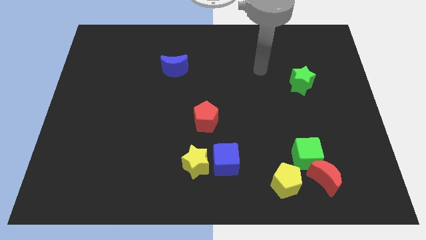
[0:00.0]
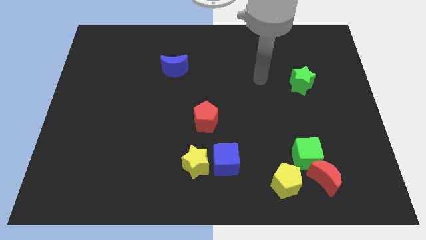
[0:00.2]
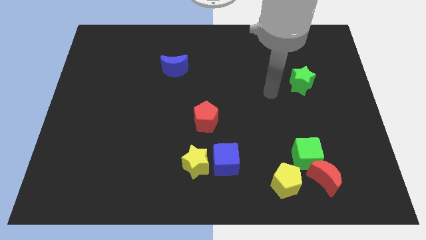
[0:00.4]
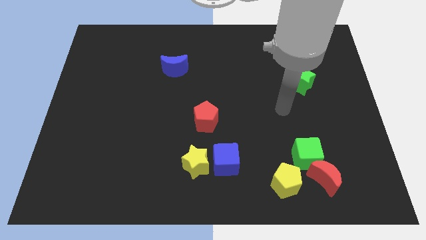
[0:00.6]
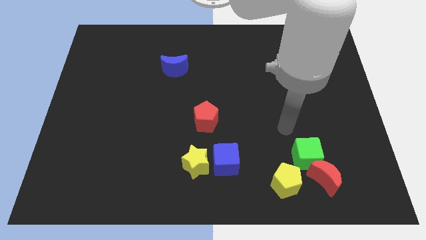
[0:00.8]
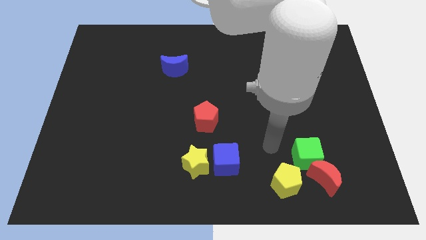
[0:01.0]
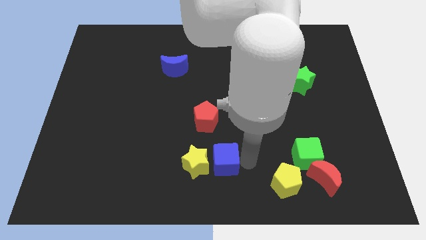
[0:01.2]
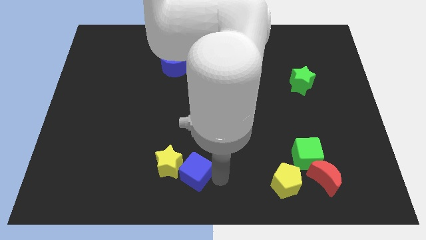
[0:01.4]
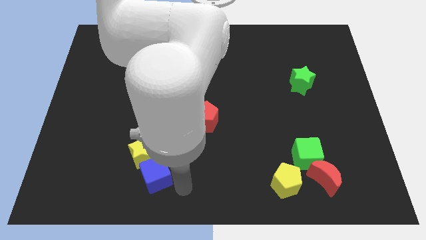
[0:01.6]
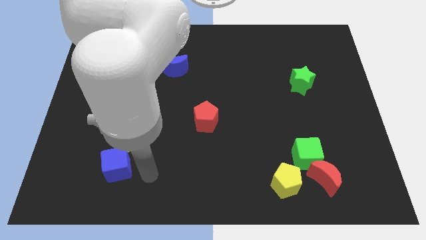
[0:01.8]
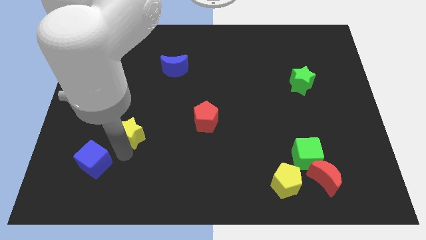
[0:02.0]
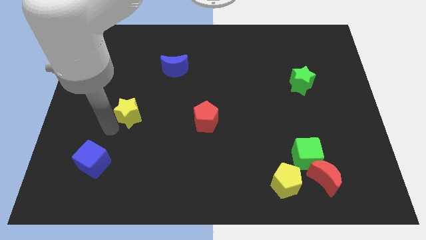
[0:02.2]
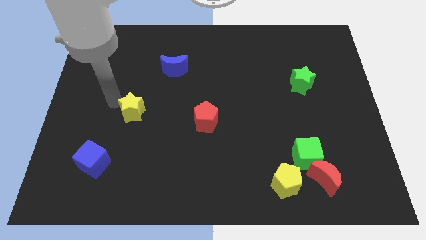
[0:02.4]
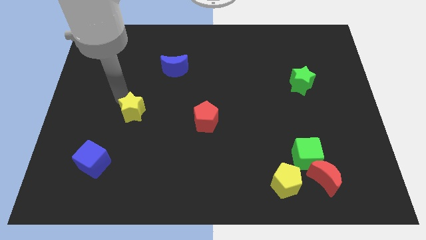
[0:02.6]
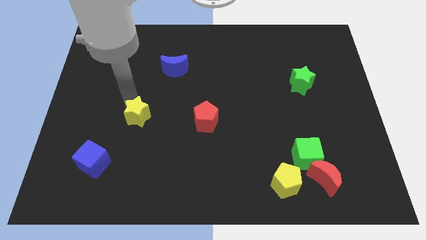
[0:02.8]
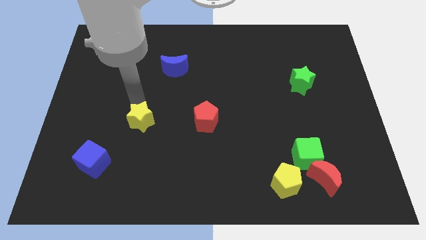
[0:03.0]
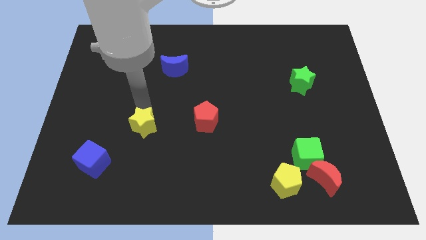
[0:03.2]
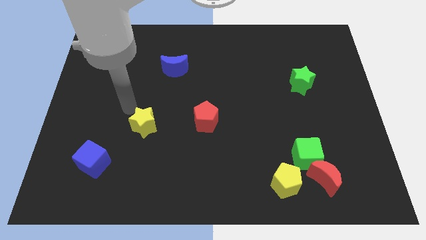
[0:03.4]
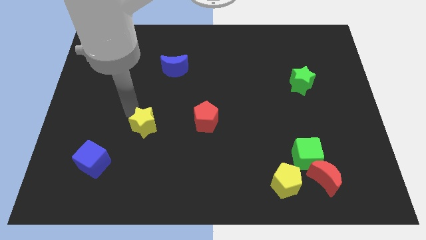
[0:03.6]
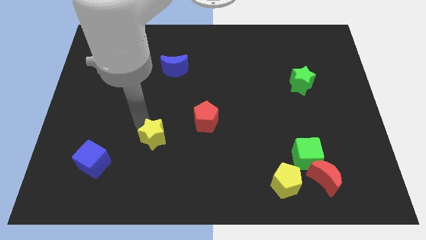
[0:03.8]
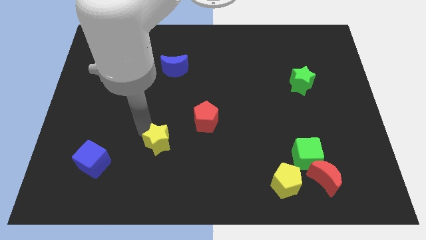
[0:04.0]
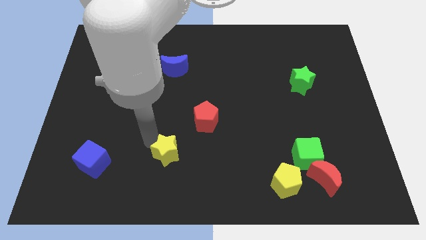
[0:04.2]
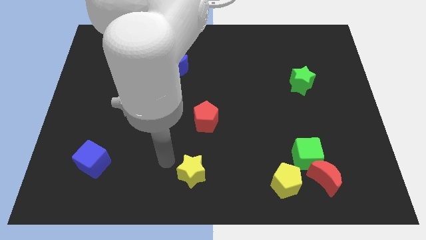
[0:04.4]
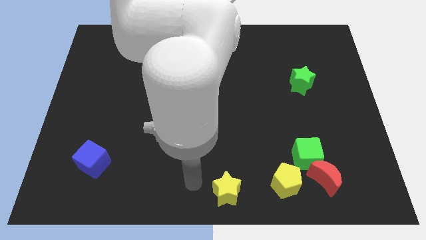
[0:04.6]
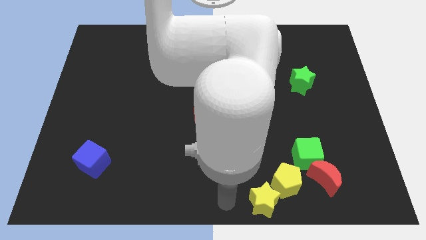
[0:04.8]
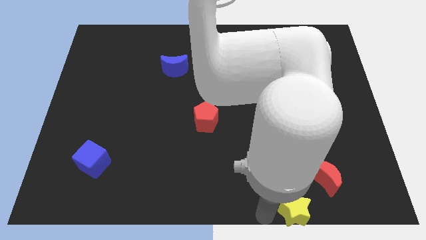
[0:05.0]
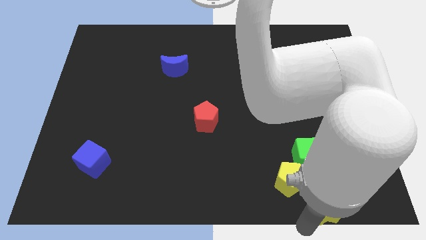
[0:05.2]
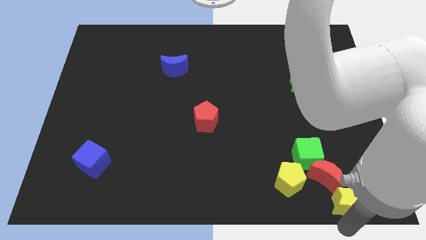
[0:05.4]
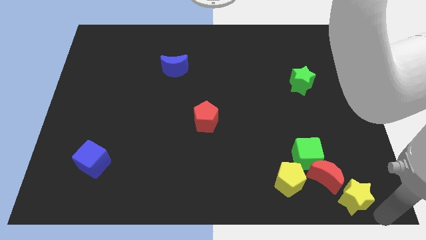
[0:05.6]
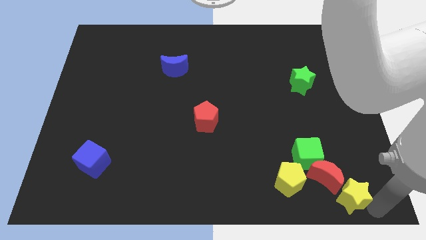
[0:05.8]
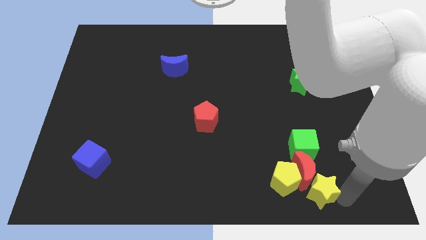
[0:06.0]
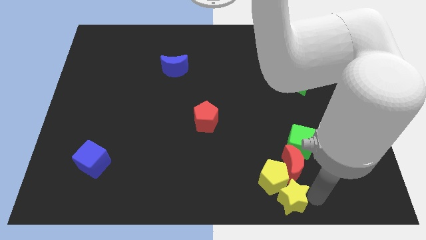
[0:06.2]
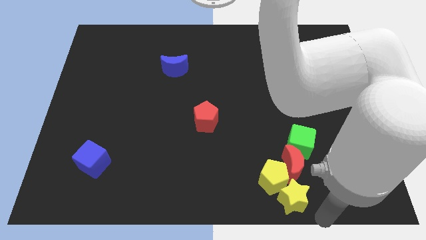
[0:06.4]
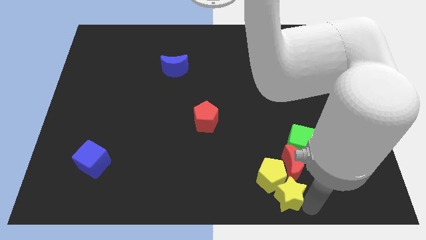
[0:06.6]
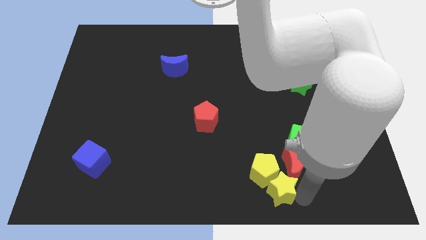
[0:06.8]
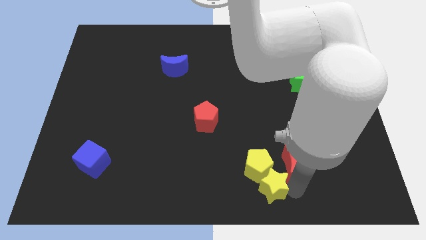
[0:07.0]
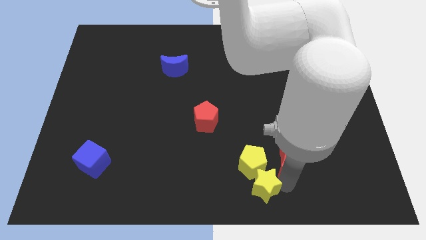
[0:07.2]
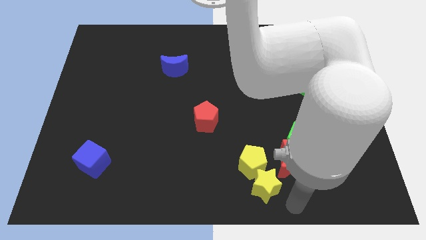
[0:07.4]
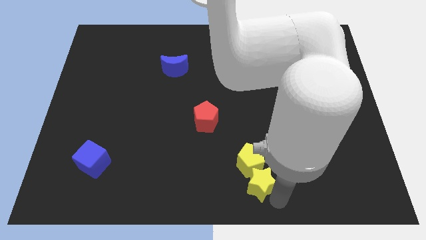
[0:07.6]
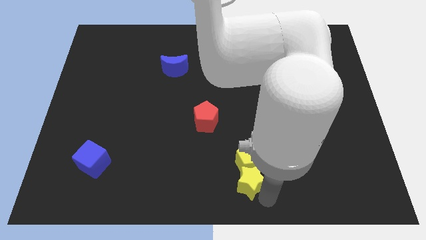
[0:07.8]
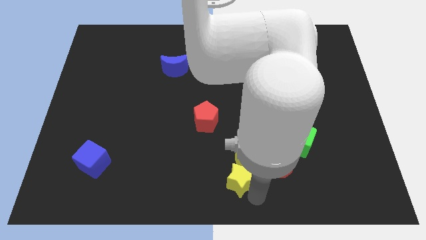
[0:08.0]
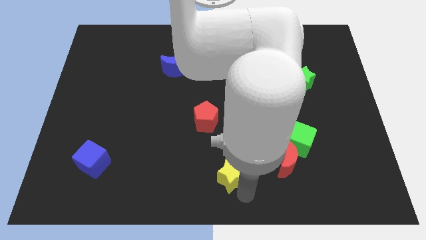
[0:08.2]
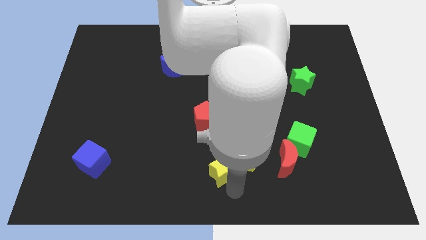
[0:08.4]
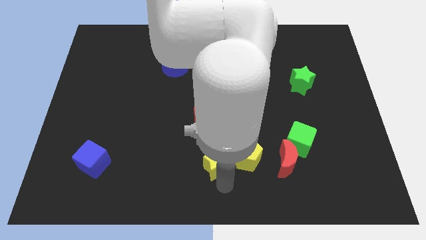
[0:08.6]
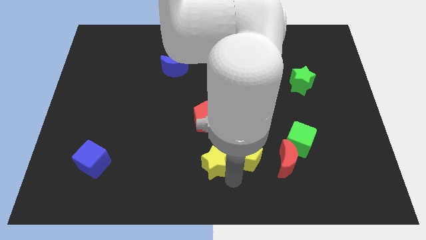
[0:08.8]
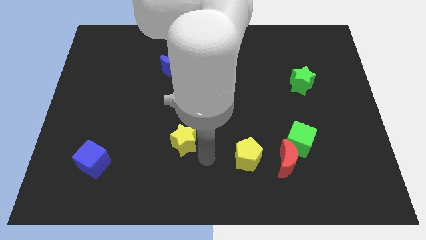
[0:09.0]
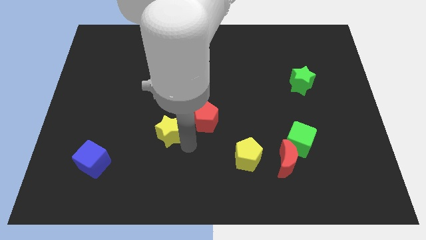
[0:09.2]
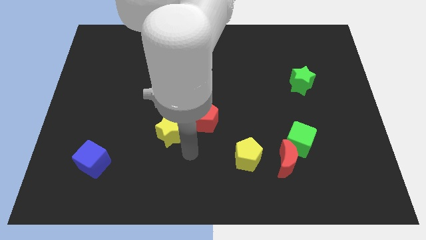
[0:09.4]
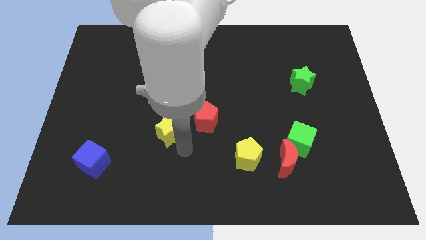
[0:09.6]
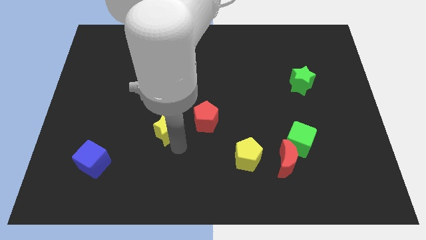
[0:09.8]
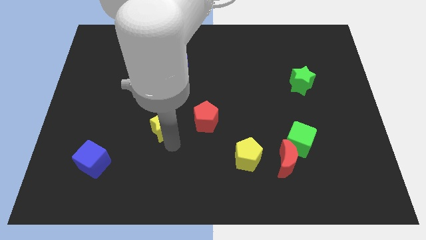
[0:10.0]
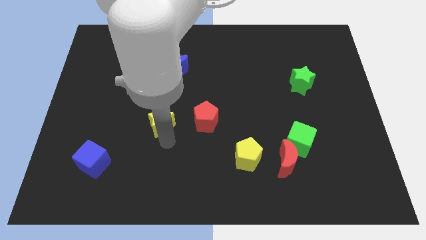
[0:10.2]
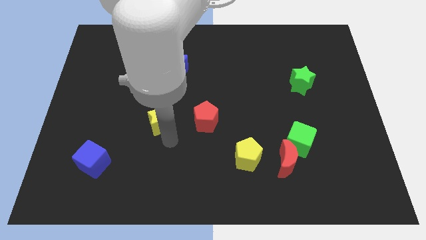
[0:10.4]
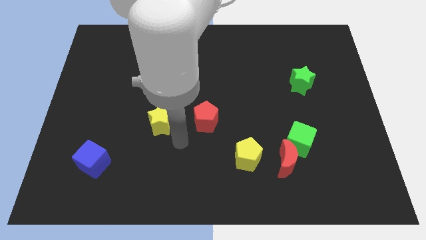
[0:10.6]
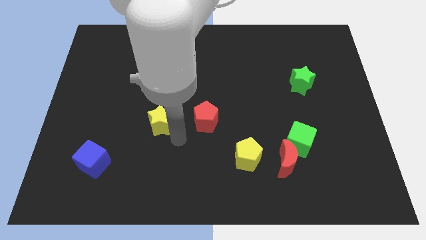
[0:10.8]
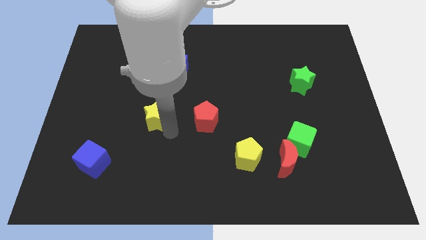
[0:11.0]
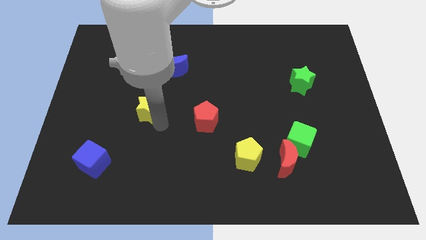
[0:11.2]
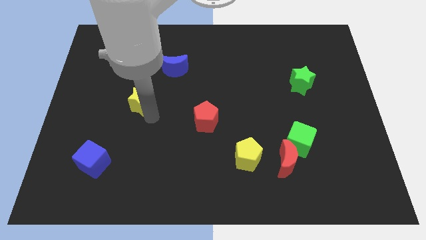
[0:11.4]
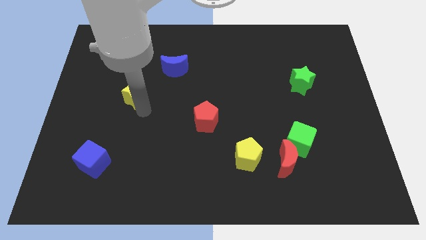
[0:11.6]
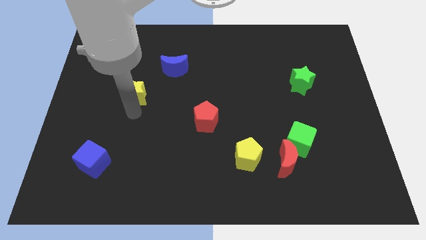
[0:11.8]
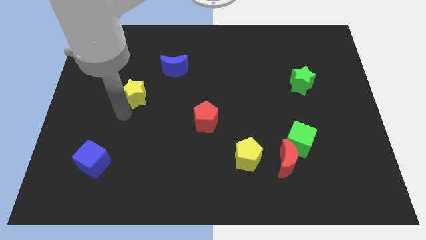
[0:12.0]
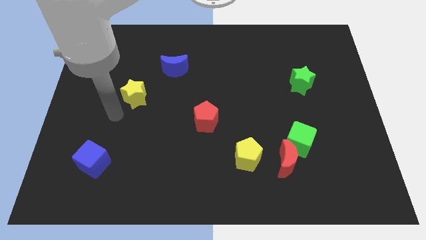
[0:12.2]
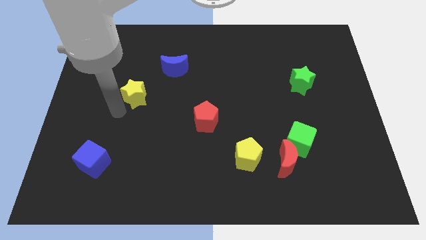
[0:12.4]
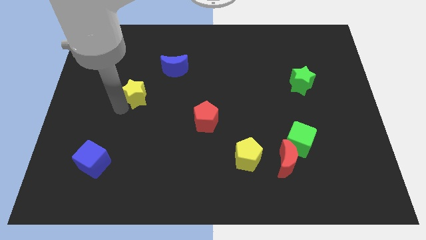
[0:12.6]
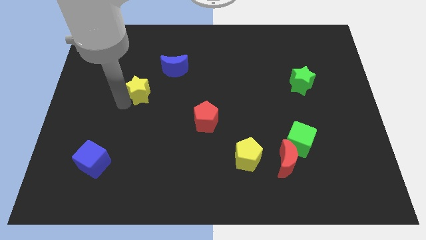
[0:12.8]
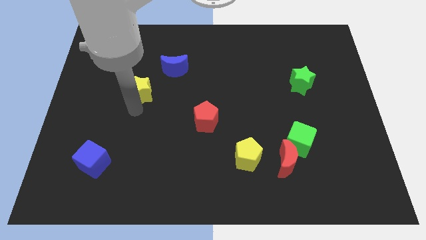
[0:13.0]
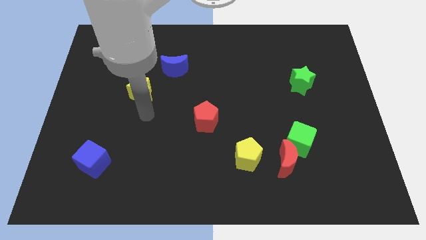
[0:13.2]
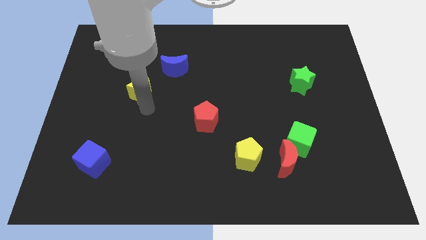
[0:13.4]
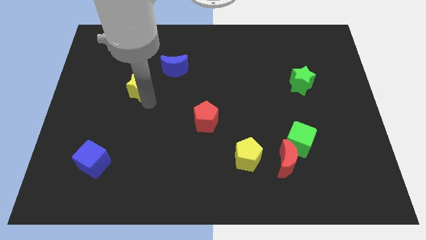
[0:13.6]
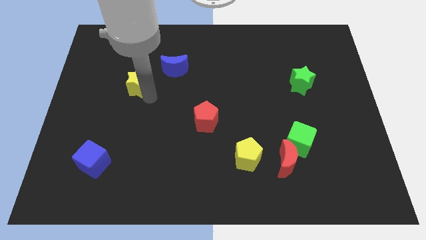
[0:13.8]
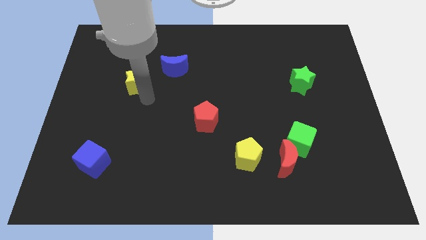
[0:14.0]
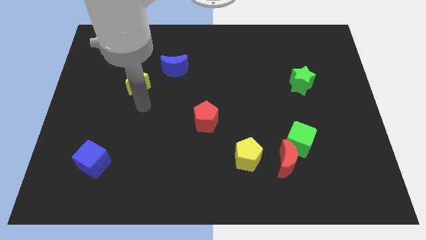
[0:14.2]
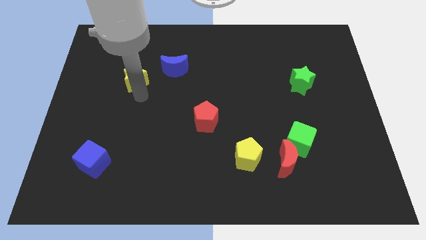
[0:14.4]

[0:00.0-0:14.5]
put the yellow star left of the blue moon

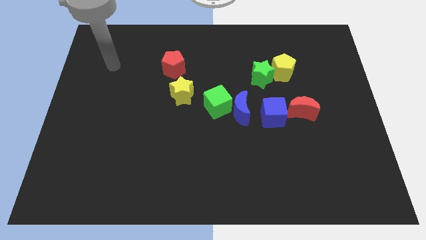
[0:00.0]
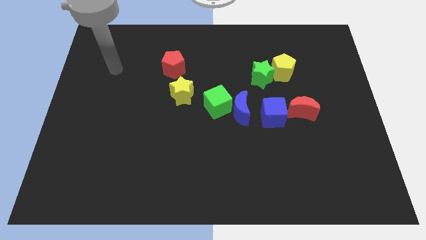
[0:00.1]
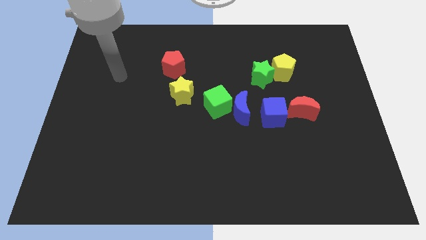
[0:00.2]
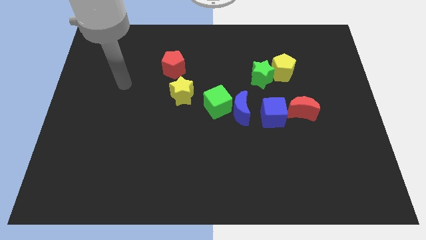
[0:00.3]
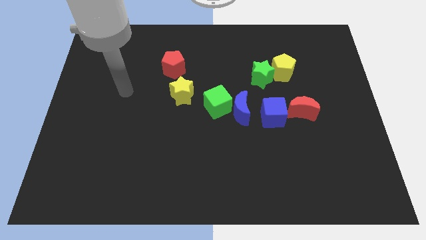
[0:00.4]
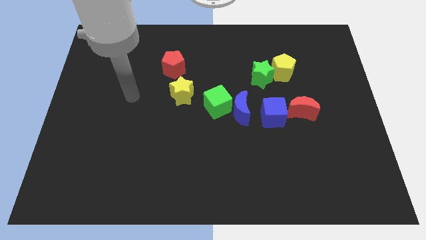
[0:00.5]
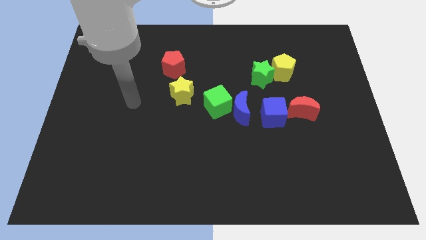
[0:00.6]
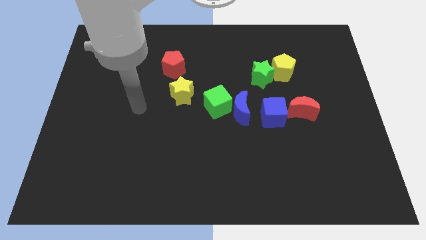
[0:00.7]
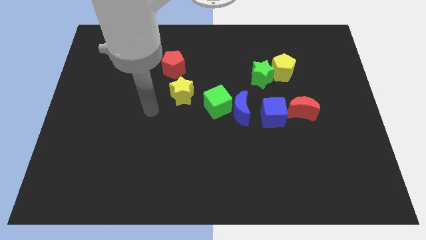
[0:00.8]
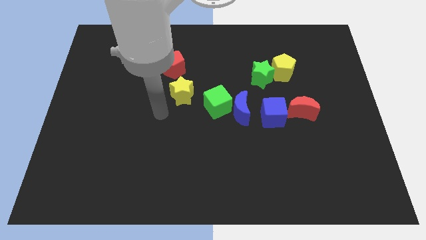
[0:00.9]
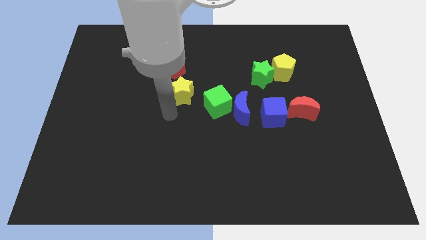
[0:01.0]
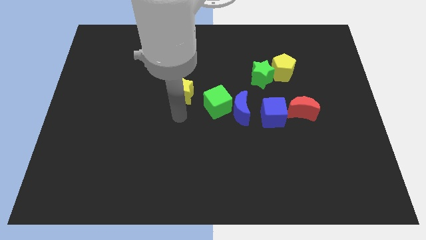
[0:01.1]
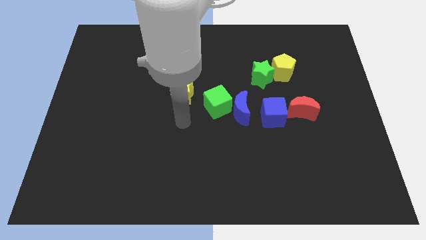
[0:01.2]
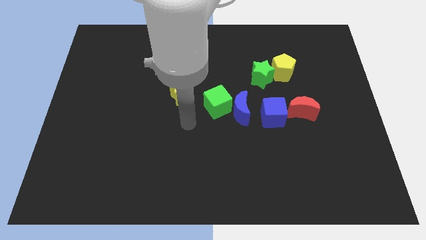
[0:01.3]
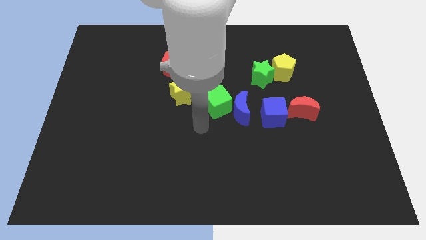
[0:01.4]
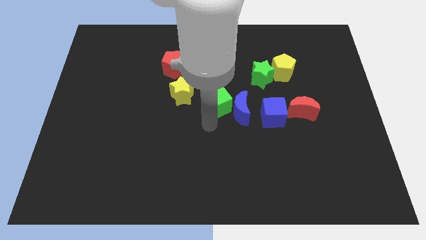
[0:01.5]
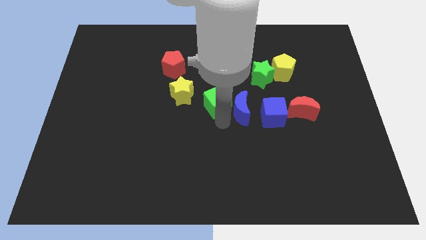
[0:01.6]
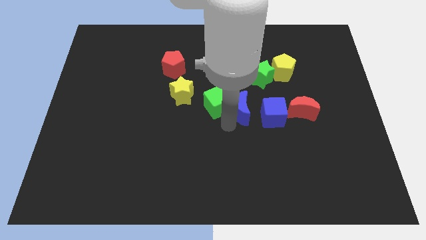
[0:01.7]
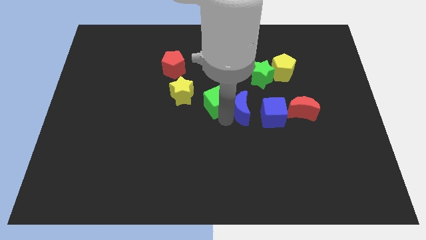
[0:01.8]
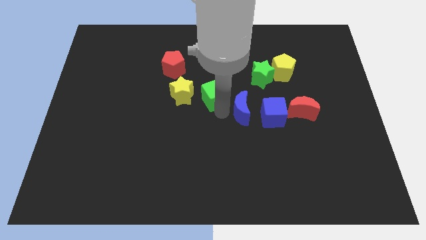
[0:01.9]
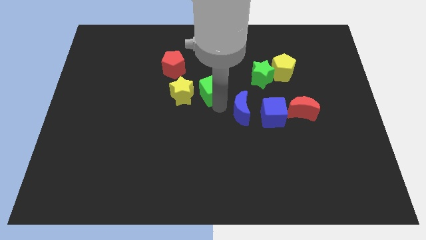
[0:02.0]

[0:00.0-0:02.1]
push the green cube diagonally up and to the right of the yellow star
